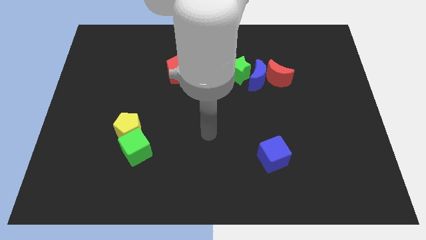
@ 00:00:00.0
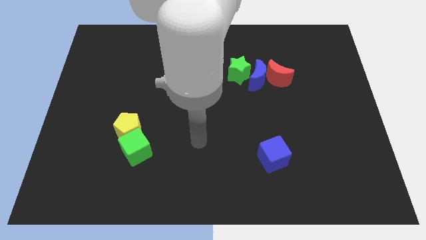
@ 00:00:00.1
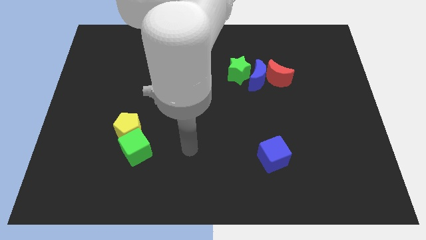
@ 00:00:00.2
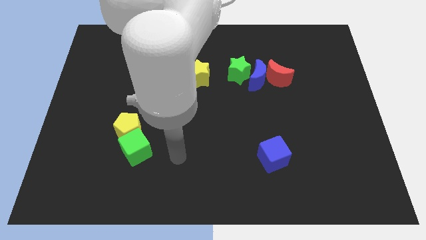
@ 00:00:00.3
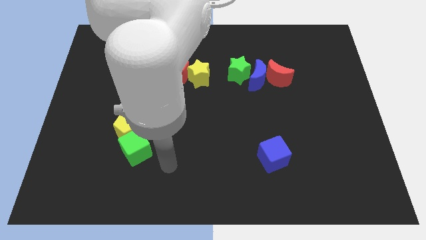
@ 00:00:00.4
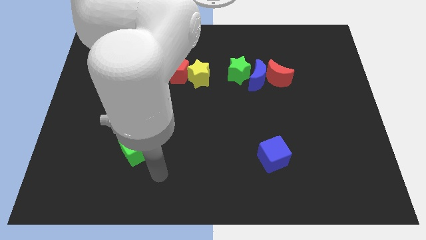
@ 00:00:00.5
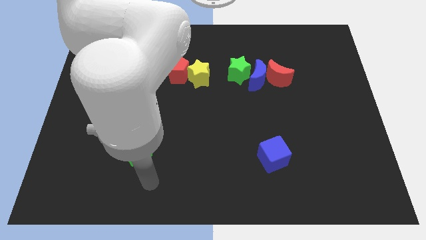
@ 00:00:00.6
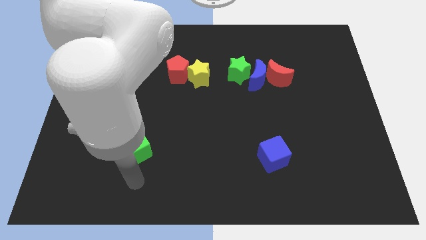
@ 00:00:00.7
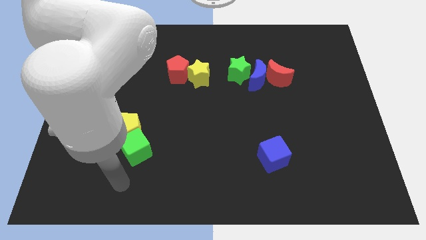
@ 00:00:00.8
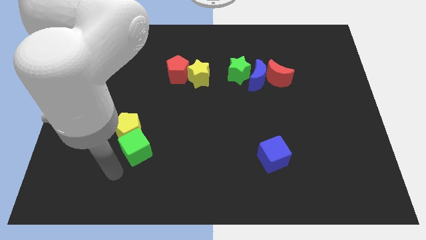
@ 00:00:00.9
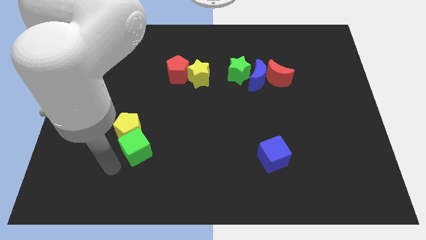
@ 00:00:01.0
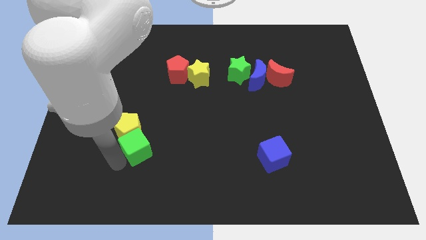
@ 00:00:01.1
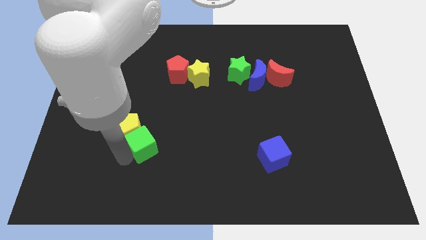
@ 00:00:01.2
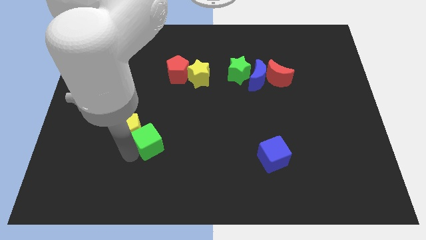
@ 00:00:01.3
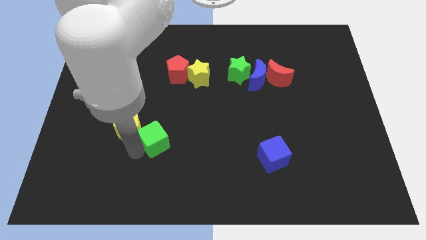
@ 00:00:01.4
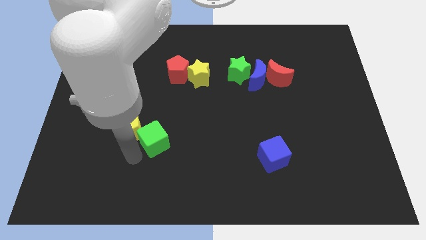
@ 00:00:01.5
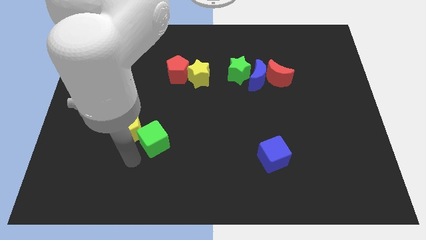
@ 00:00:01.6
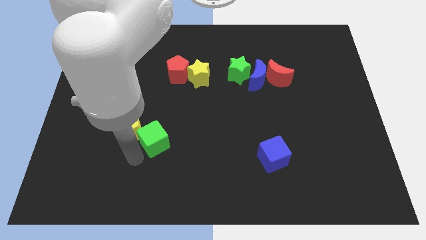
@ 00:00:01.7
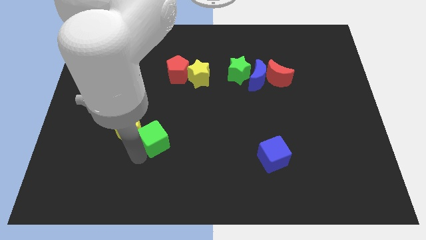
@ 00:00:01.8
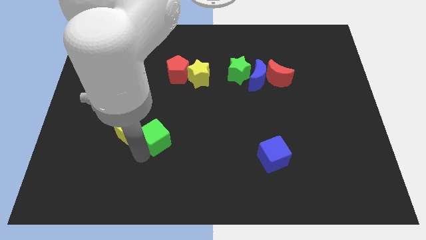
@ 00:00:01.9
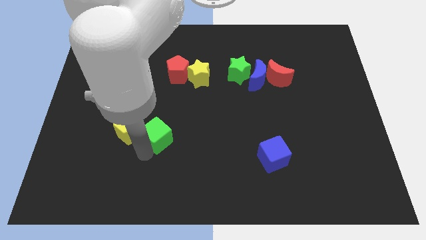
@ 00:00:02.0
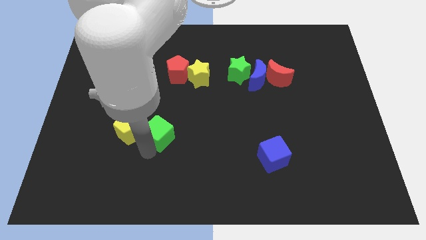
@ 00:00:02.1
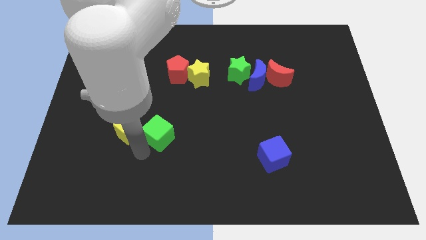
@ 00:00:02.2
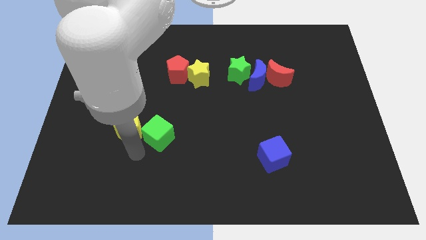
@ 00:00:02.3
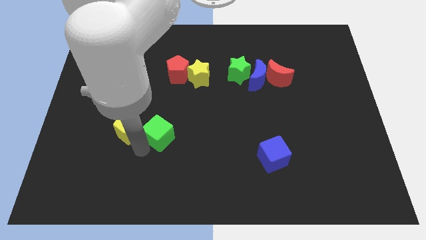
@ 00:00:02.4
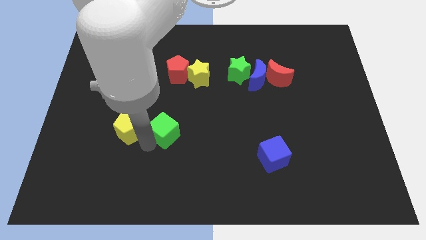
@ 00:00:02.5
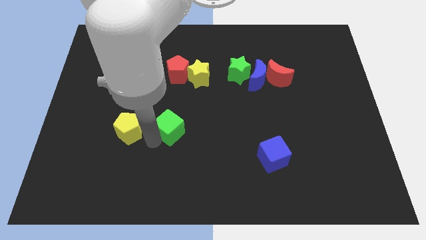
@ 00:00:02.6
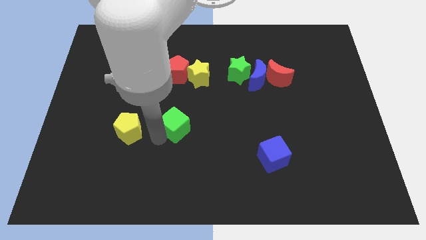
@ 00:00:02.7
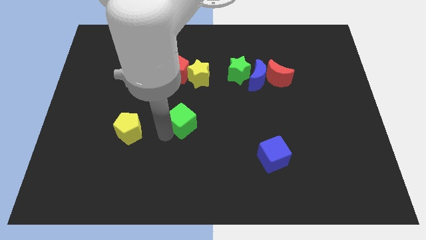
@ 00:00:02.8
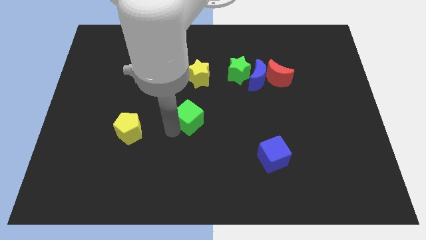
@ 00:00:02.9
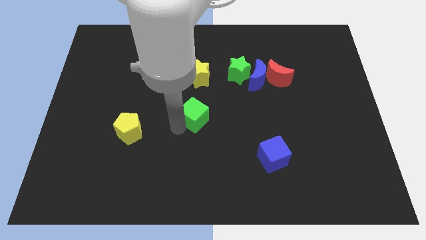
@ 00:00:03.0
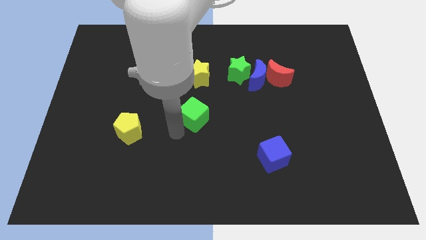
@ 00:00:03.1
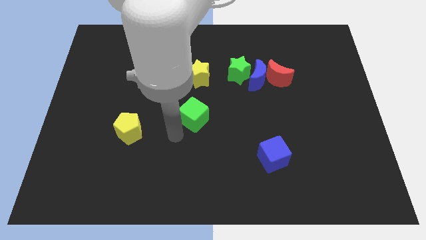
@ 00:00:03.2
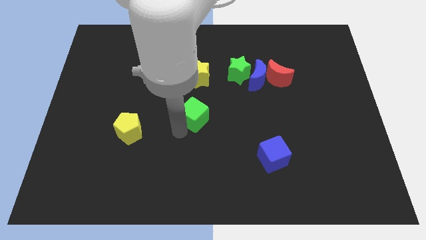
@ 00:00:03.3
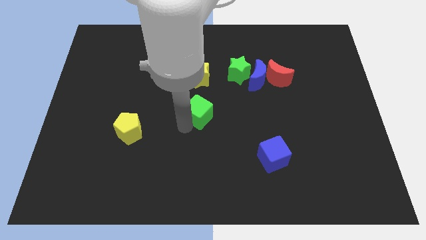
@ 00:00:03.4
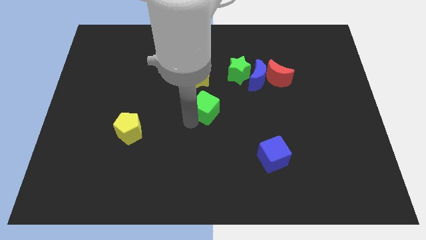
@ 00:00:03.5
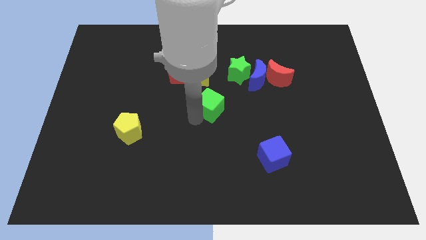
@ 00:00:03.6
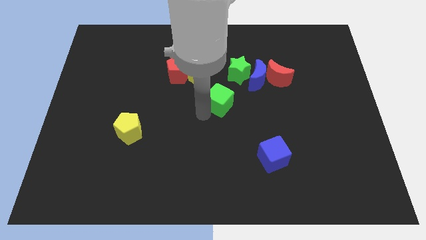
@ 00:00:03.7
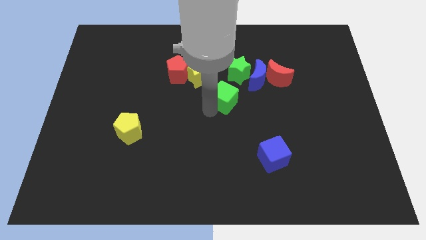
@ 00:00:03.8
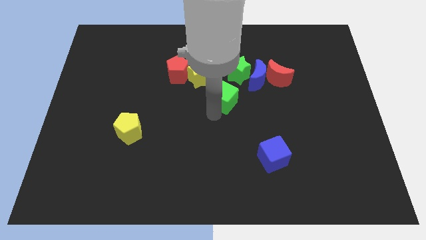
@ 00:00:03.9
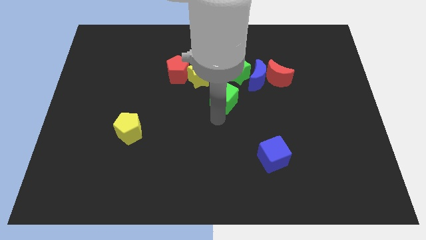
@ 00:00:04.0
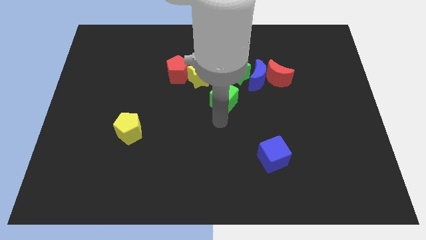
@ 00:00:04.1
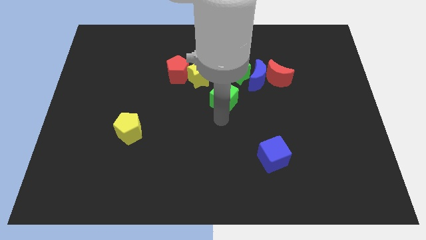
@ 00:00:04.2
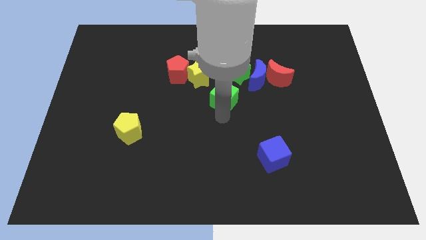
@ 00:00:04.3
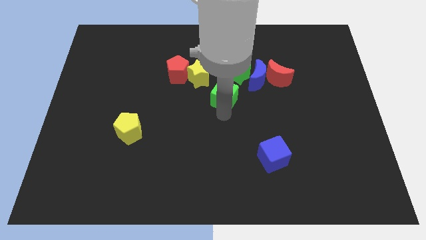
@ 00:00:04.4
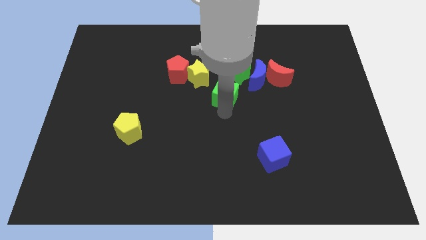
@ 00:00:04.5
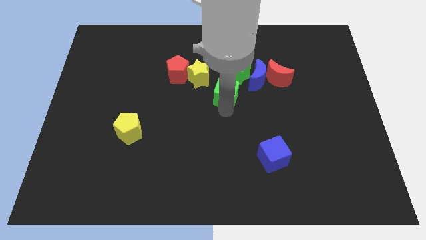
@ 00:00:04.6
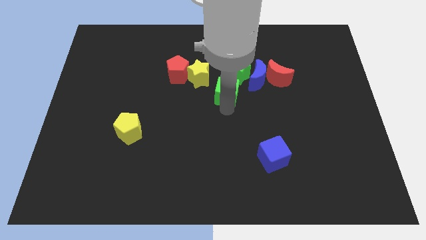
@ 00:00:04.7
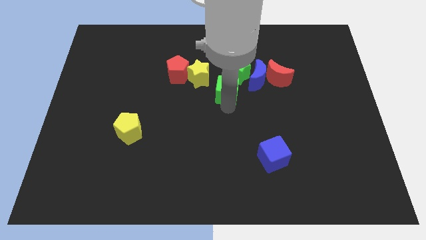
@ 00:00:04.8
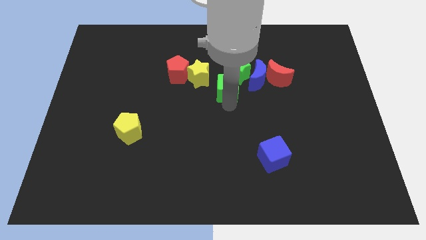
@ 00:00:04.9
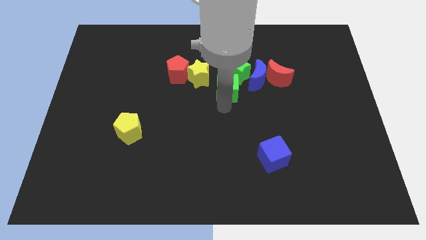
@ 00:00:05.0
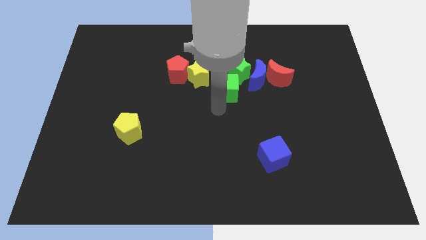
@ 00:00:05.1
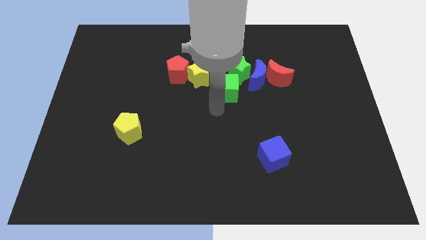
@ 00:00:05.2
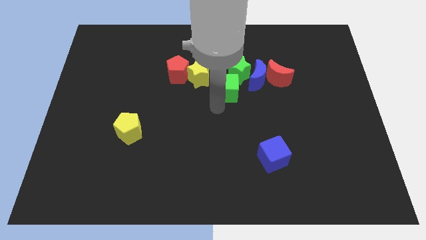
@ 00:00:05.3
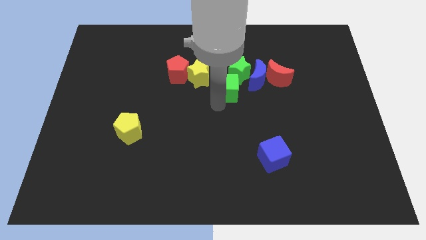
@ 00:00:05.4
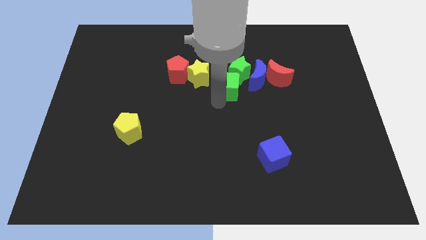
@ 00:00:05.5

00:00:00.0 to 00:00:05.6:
move the green cube to the green star

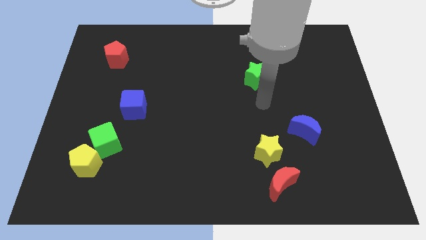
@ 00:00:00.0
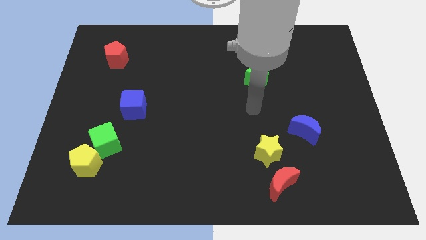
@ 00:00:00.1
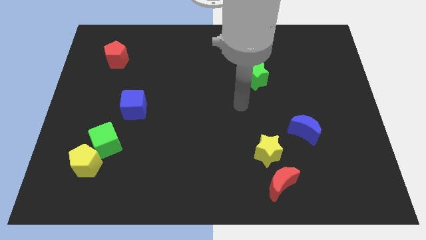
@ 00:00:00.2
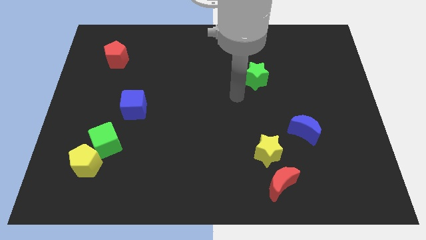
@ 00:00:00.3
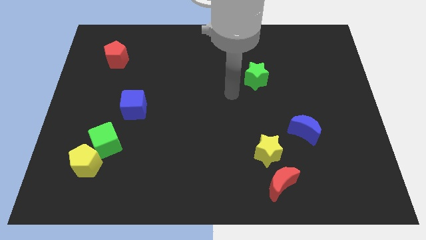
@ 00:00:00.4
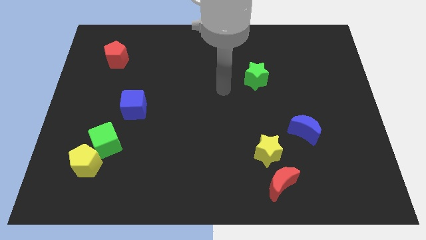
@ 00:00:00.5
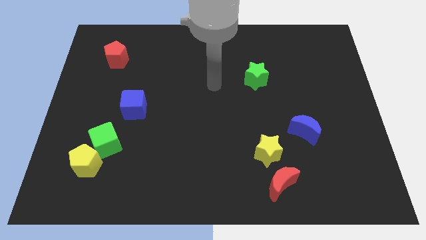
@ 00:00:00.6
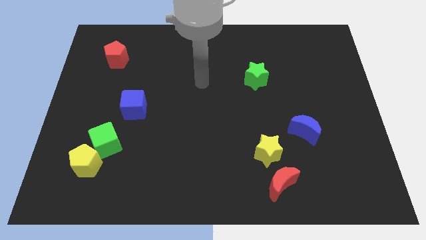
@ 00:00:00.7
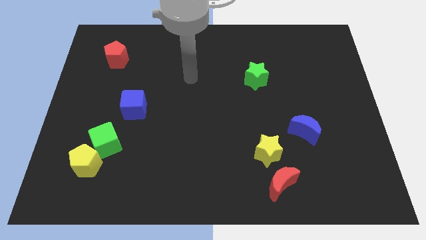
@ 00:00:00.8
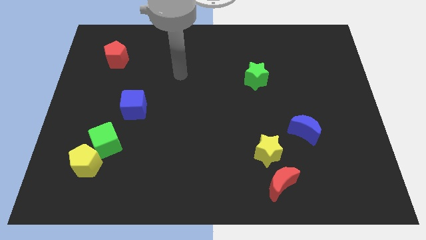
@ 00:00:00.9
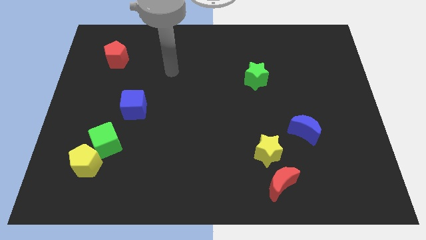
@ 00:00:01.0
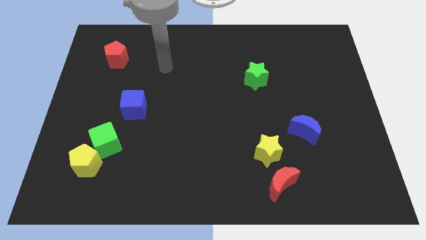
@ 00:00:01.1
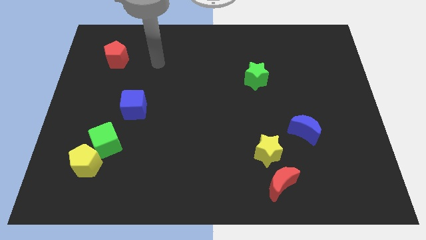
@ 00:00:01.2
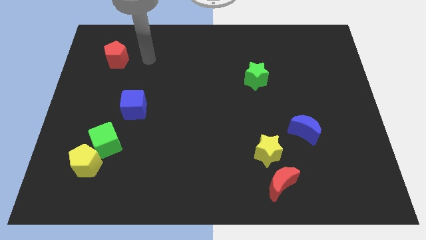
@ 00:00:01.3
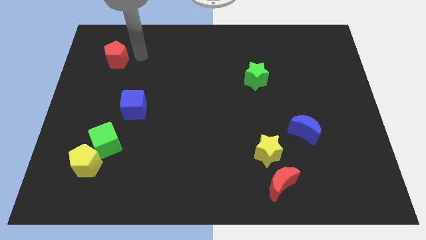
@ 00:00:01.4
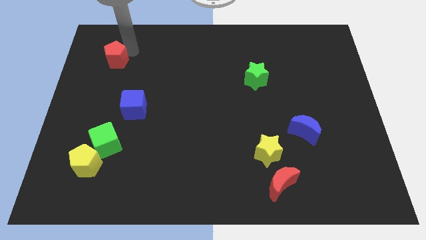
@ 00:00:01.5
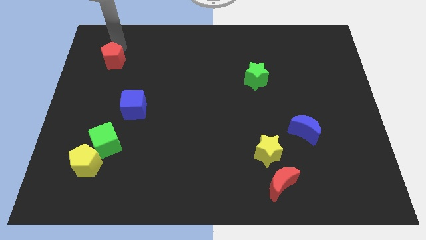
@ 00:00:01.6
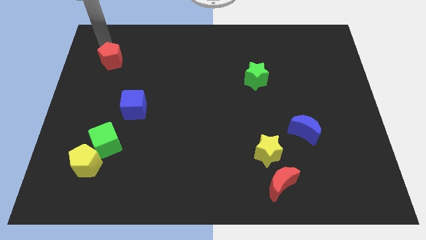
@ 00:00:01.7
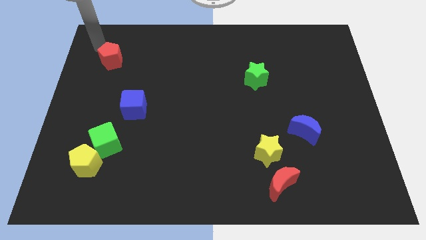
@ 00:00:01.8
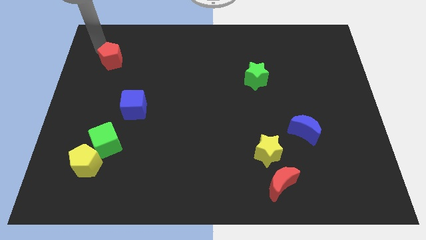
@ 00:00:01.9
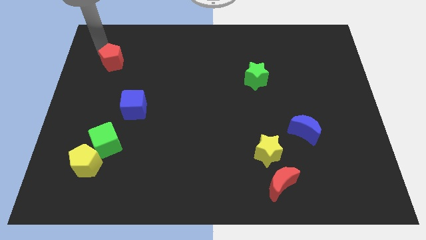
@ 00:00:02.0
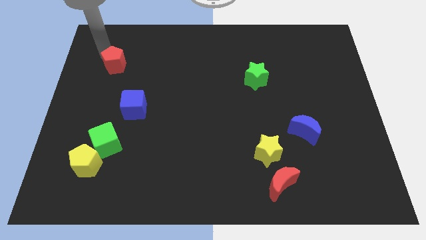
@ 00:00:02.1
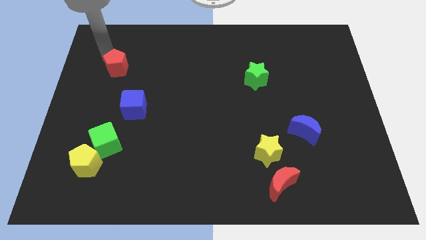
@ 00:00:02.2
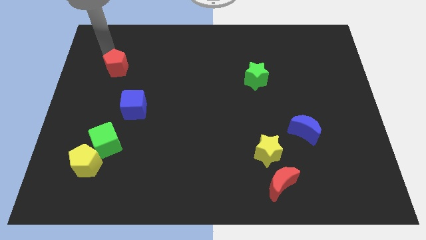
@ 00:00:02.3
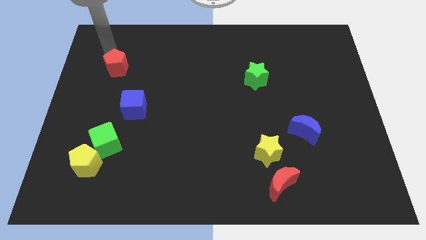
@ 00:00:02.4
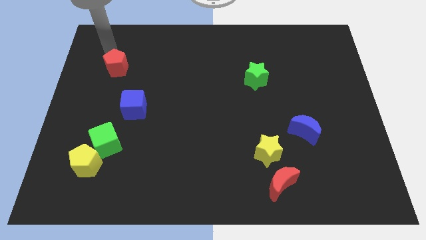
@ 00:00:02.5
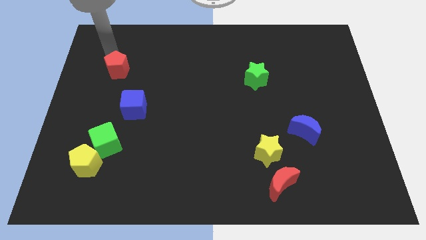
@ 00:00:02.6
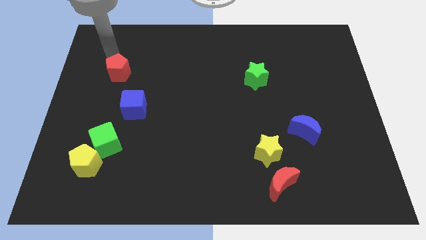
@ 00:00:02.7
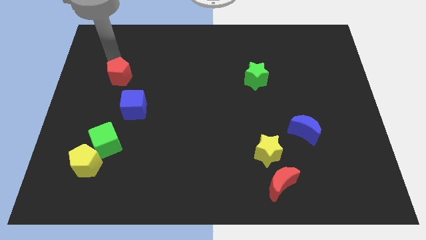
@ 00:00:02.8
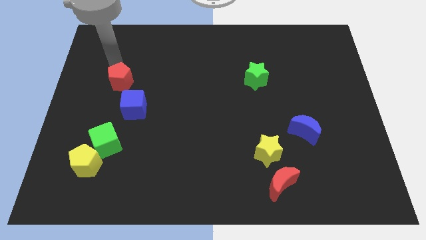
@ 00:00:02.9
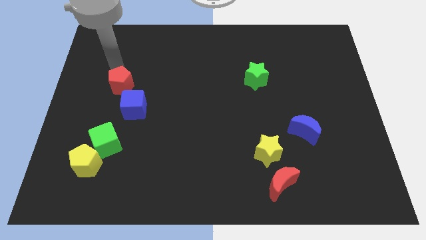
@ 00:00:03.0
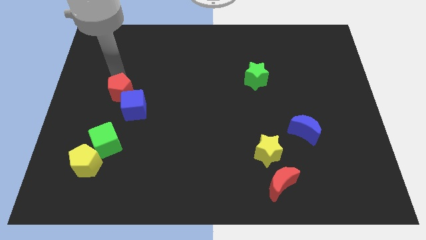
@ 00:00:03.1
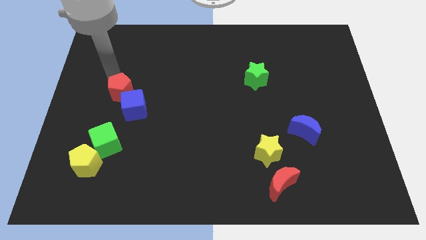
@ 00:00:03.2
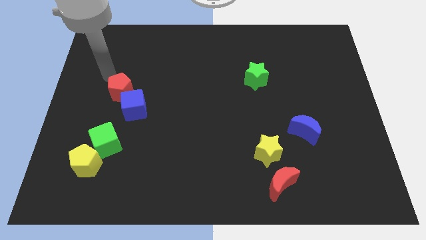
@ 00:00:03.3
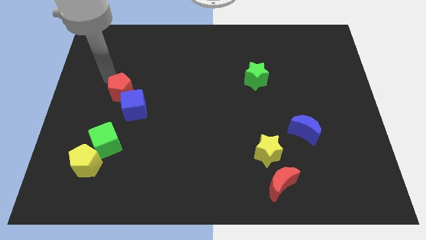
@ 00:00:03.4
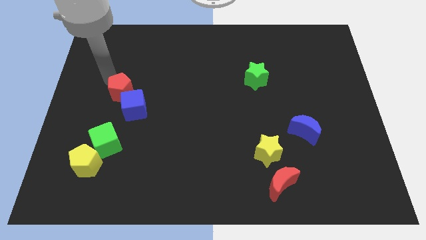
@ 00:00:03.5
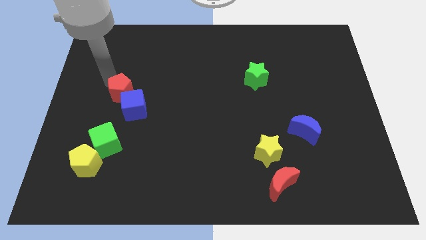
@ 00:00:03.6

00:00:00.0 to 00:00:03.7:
put the red pentagon to the blue cube
